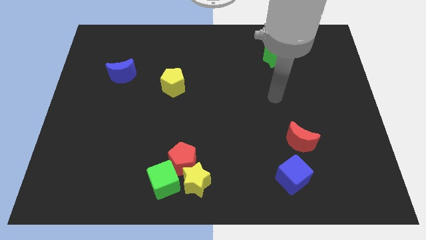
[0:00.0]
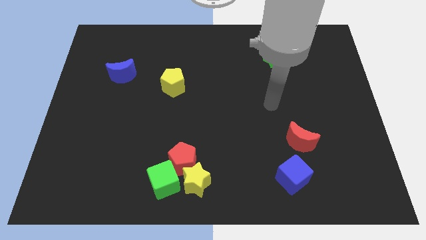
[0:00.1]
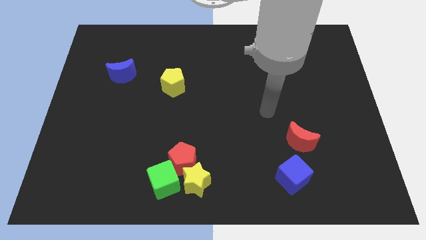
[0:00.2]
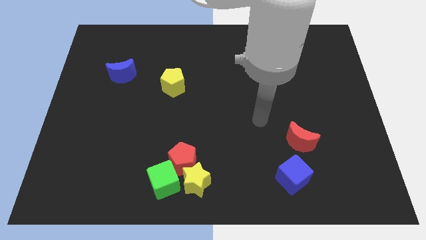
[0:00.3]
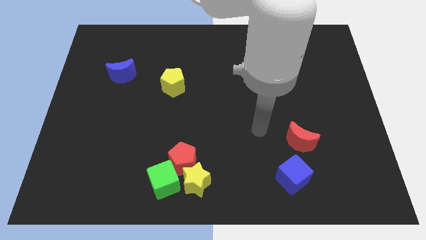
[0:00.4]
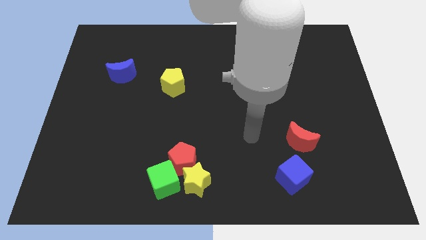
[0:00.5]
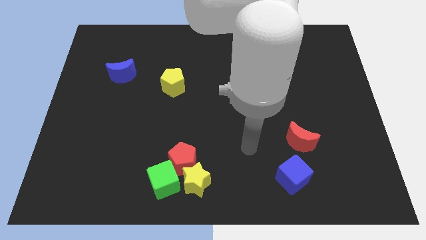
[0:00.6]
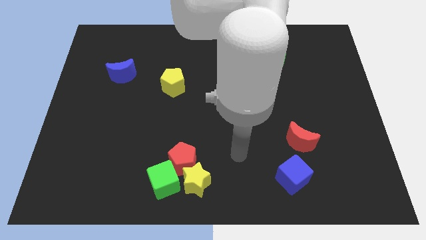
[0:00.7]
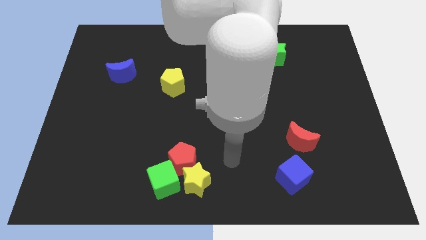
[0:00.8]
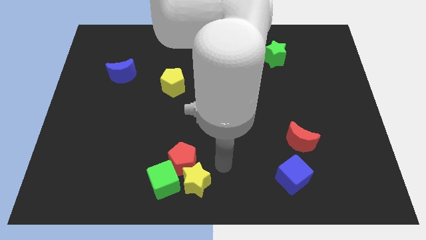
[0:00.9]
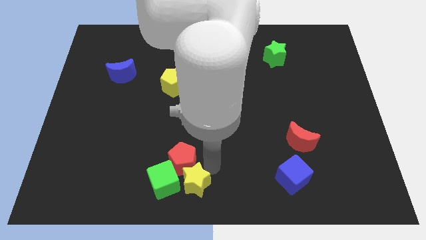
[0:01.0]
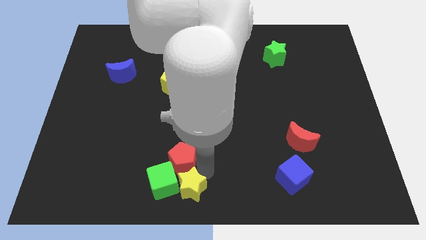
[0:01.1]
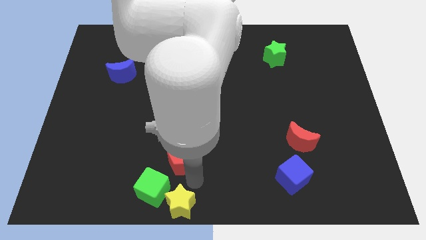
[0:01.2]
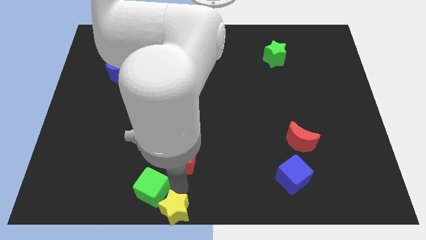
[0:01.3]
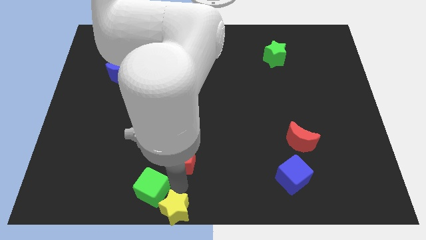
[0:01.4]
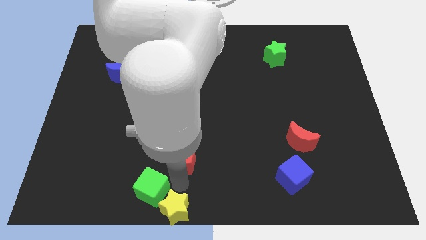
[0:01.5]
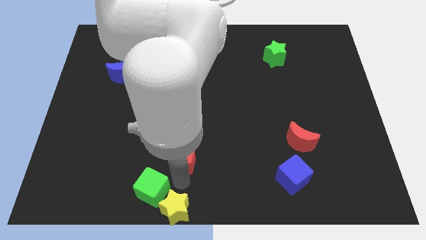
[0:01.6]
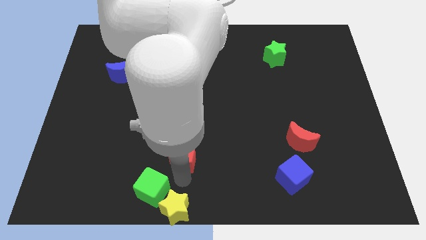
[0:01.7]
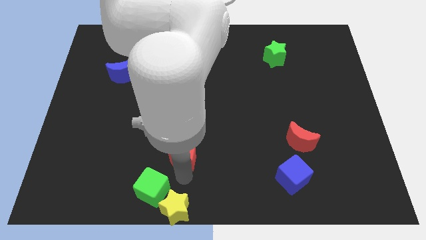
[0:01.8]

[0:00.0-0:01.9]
move the red pentagon away from the yellow star and green cube

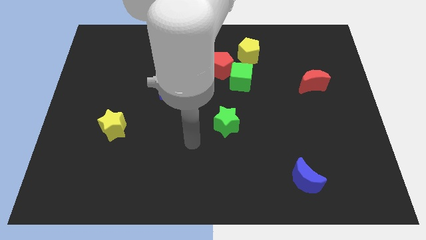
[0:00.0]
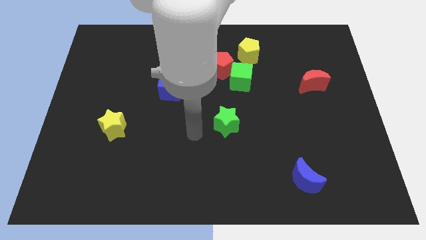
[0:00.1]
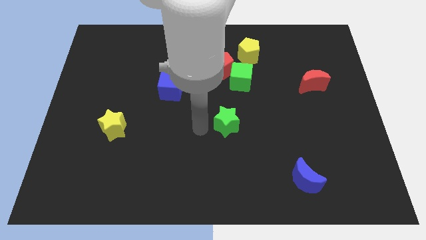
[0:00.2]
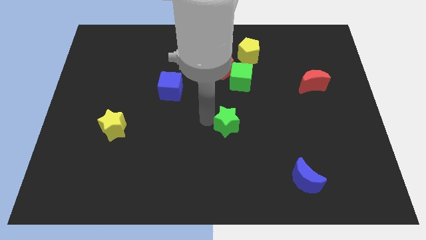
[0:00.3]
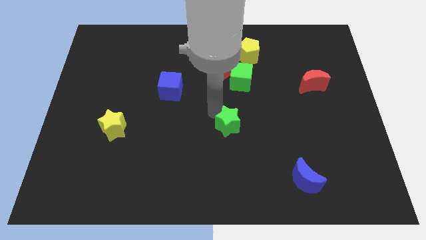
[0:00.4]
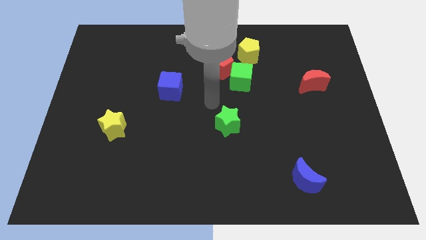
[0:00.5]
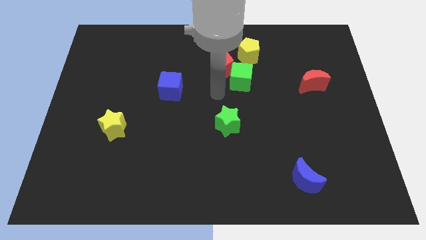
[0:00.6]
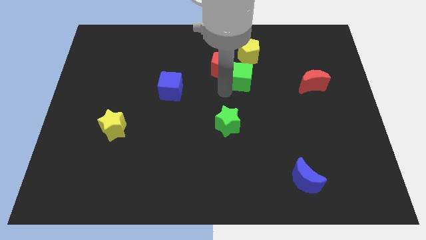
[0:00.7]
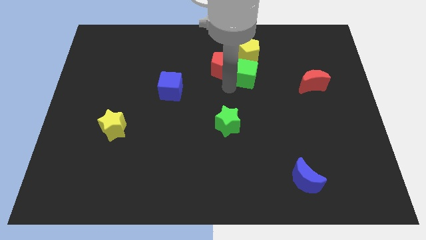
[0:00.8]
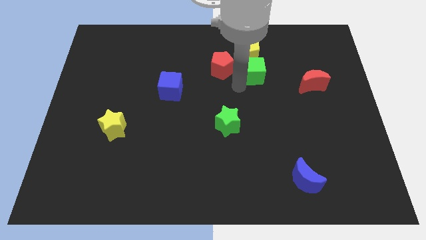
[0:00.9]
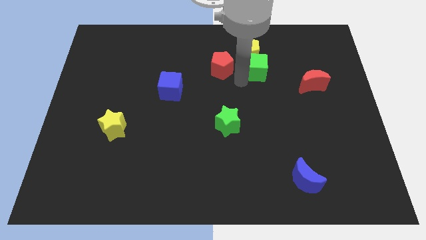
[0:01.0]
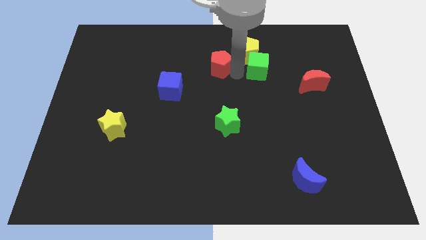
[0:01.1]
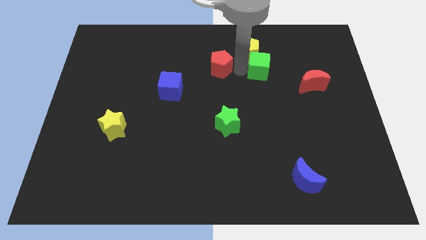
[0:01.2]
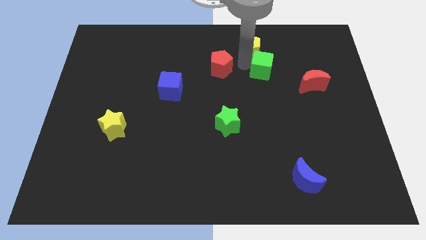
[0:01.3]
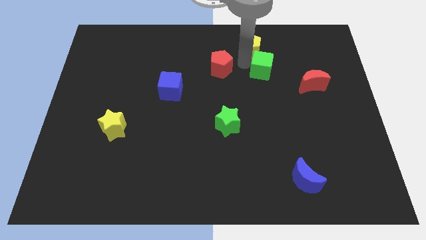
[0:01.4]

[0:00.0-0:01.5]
pull the red pentagon apart from the green cube and yellow pentagon

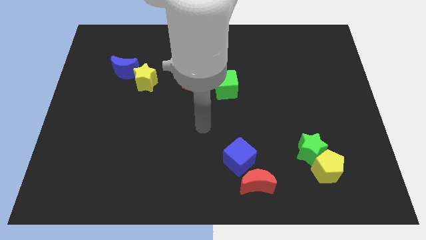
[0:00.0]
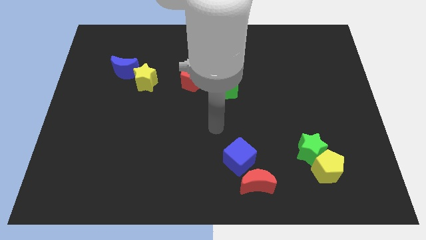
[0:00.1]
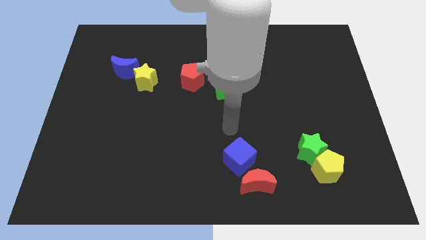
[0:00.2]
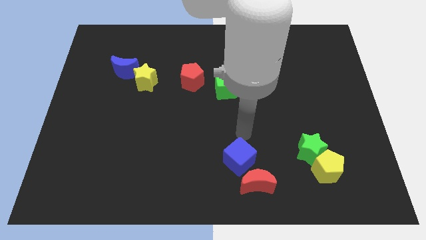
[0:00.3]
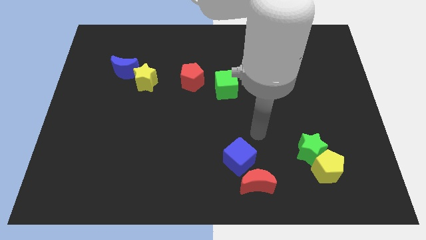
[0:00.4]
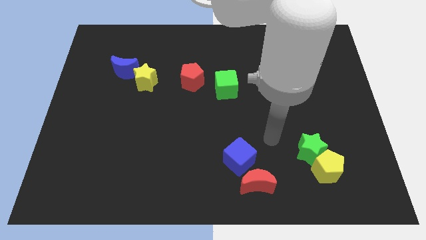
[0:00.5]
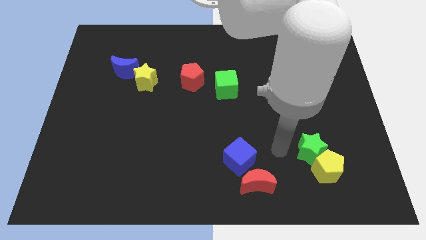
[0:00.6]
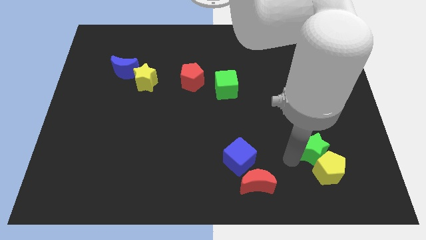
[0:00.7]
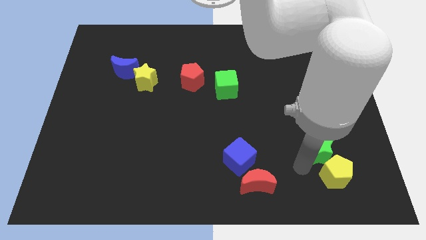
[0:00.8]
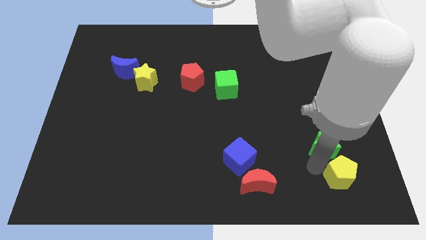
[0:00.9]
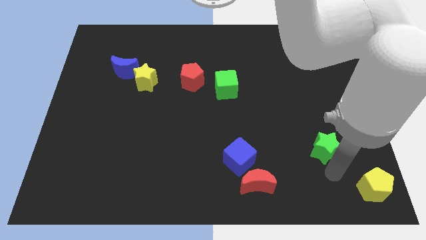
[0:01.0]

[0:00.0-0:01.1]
separate the green star from the yellow pentagon

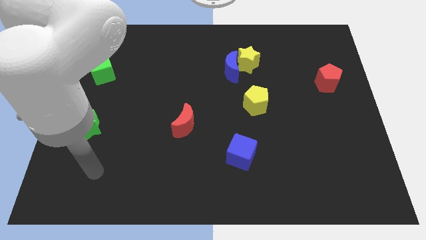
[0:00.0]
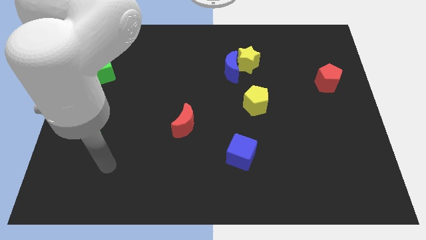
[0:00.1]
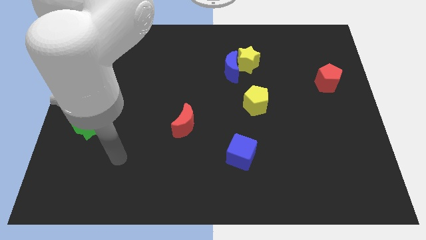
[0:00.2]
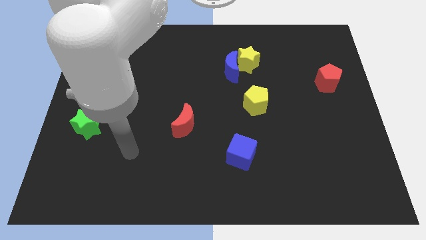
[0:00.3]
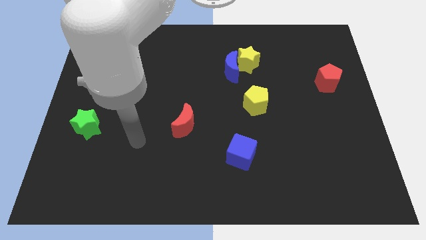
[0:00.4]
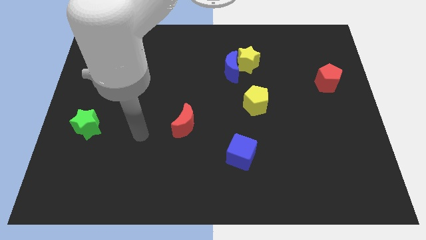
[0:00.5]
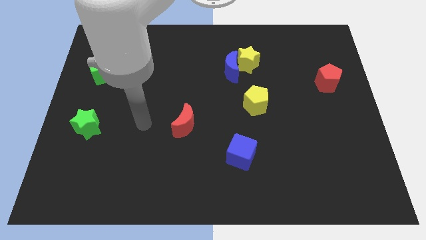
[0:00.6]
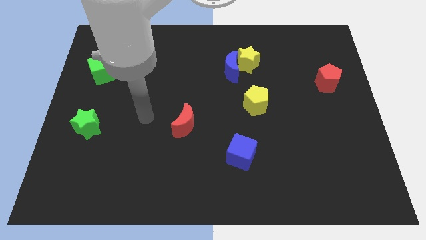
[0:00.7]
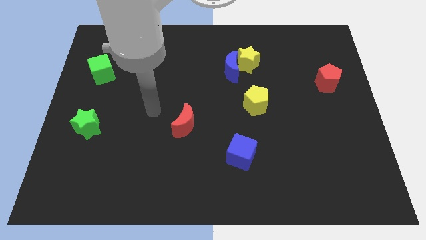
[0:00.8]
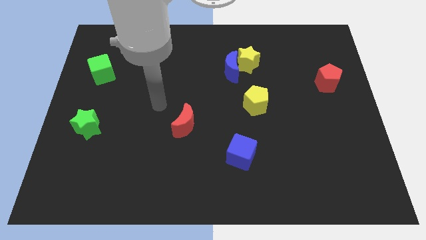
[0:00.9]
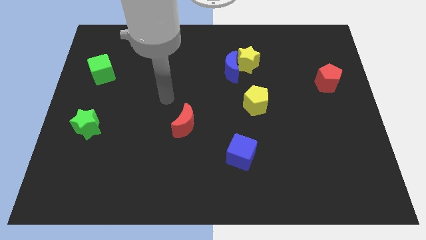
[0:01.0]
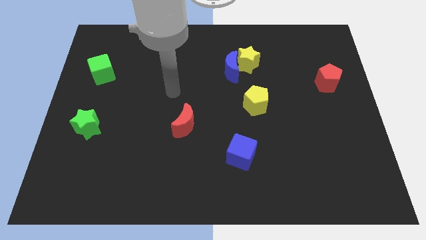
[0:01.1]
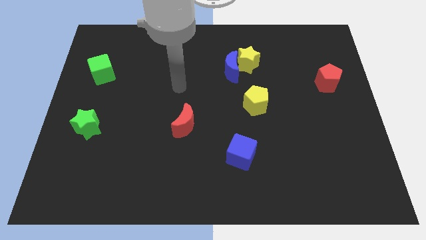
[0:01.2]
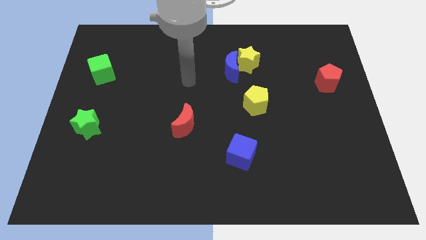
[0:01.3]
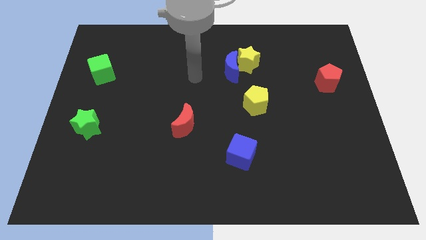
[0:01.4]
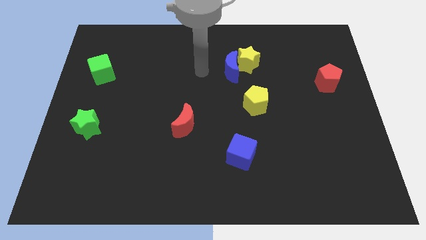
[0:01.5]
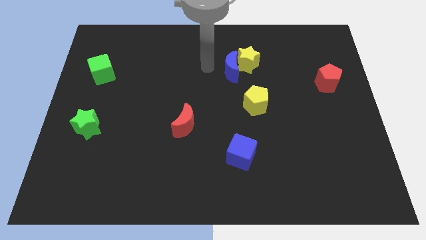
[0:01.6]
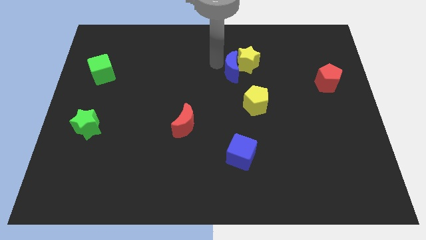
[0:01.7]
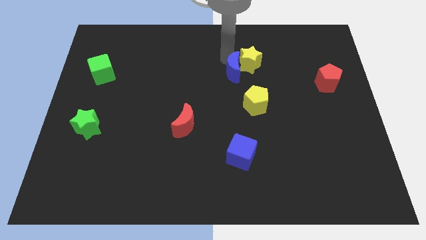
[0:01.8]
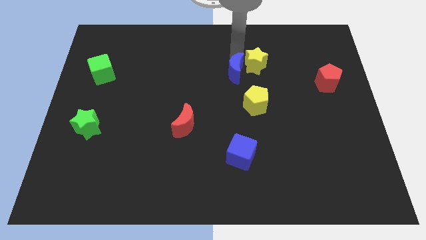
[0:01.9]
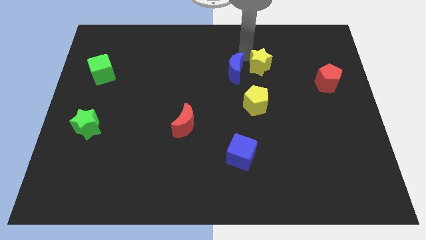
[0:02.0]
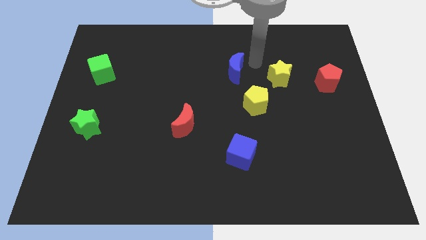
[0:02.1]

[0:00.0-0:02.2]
move the blue moon away from the yellow star

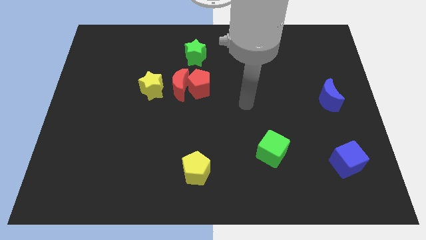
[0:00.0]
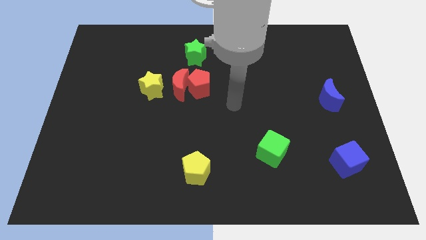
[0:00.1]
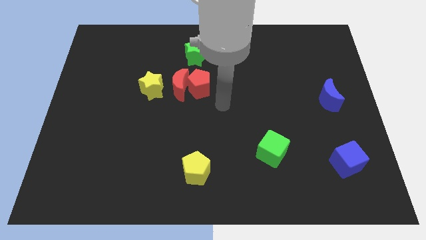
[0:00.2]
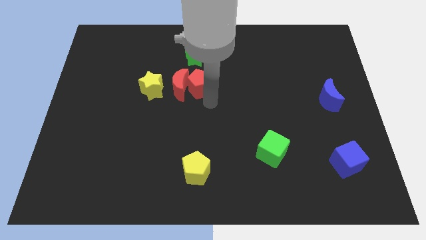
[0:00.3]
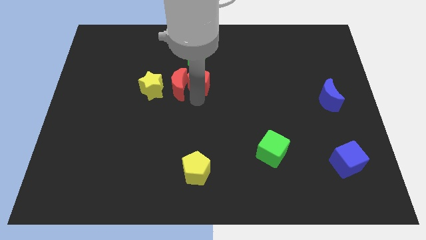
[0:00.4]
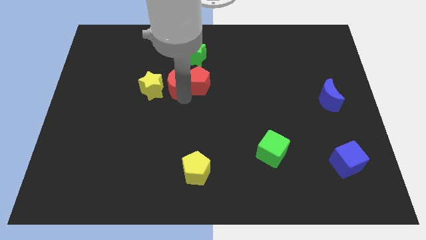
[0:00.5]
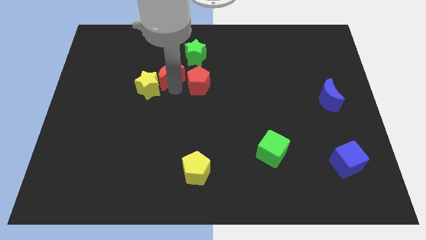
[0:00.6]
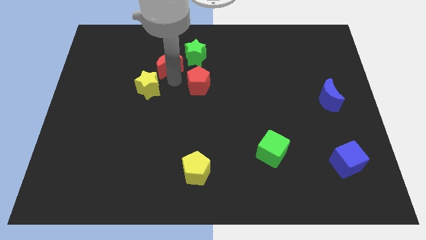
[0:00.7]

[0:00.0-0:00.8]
move the red pentagon away from the red moon

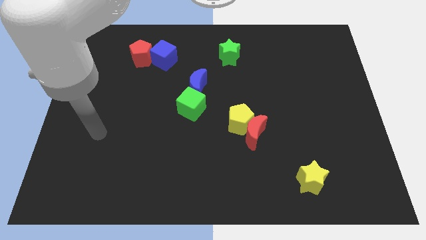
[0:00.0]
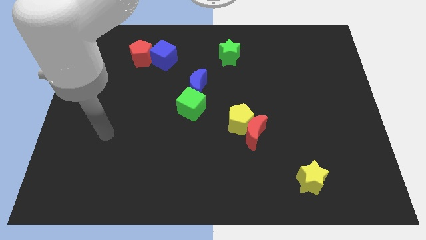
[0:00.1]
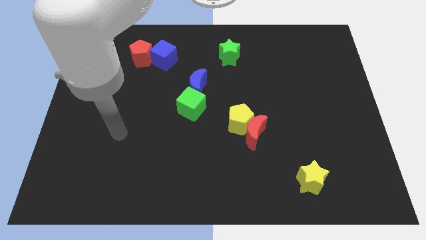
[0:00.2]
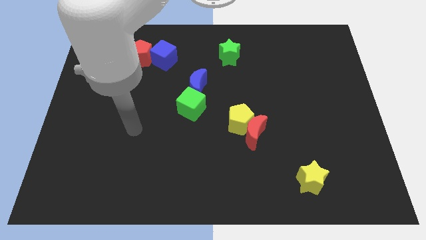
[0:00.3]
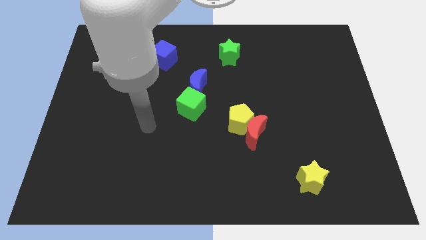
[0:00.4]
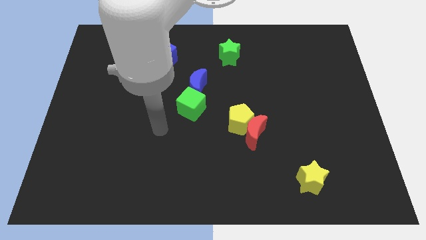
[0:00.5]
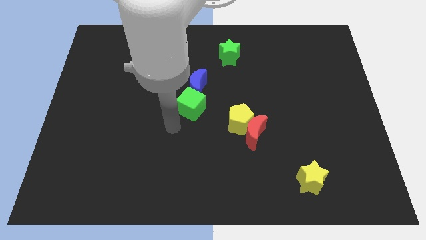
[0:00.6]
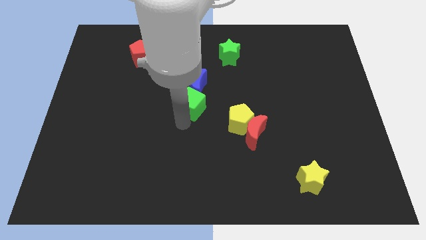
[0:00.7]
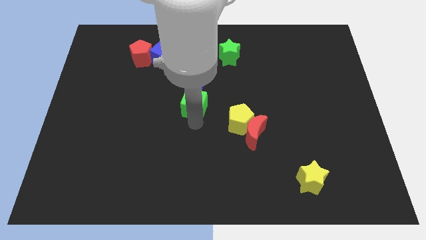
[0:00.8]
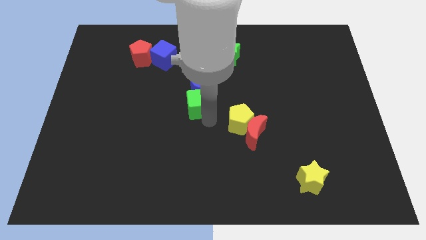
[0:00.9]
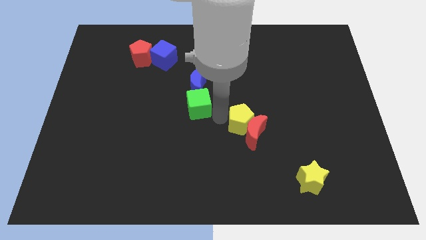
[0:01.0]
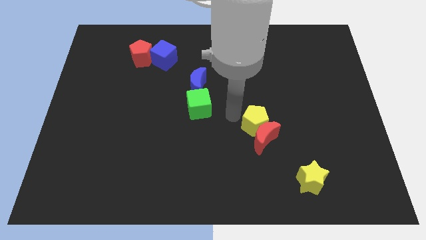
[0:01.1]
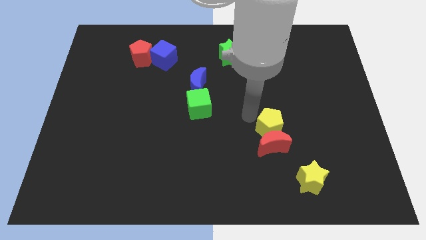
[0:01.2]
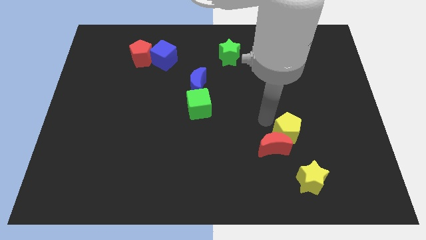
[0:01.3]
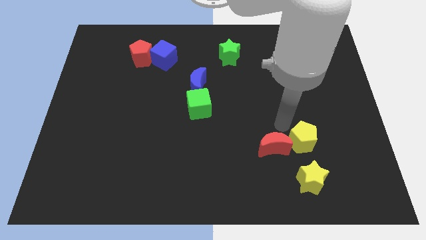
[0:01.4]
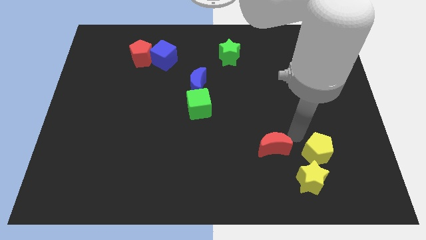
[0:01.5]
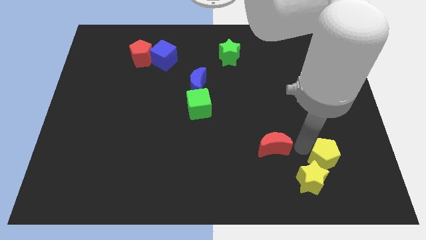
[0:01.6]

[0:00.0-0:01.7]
separate the red moon from the yellow pentagon

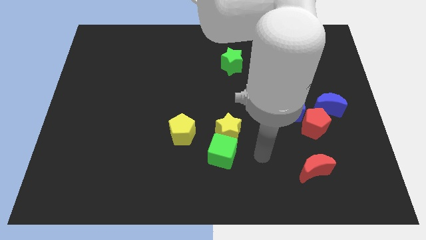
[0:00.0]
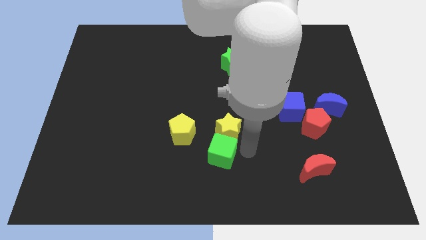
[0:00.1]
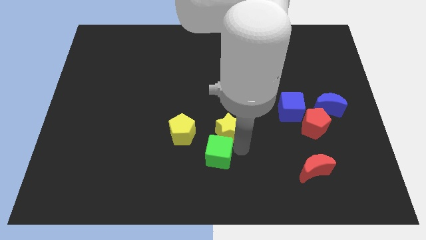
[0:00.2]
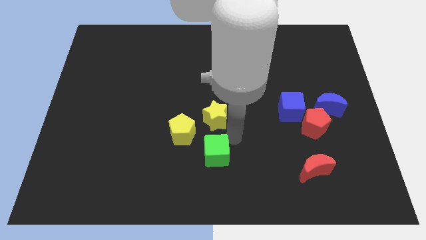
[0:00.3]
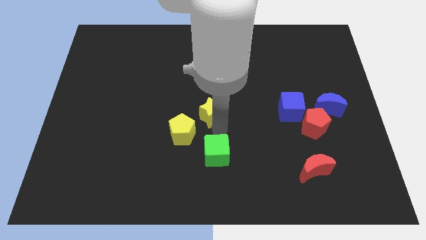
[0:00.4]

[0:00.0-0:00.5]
pull the green cube apart from the yellow star
